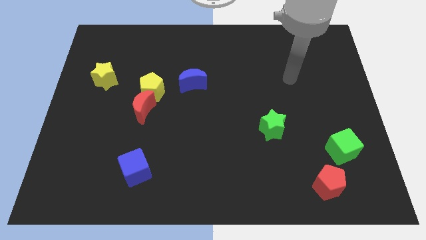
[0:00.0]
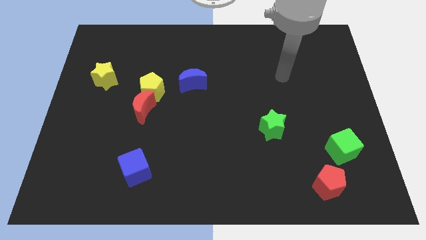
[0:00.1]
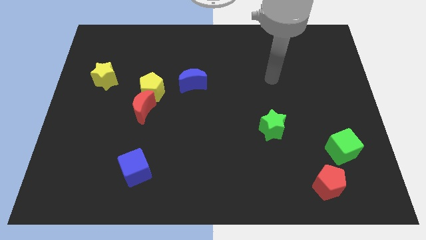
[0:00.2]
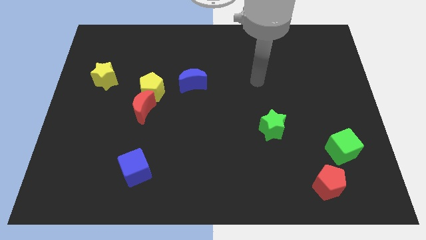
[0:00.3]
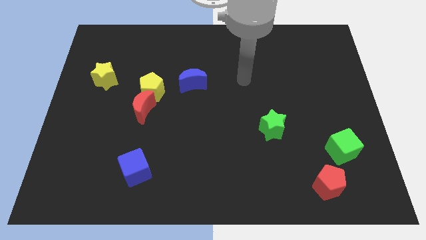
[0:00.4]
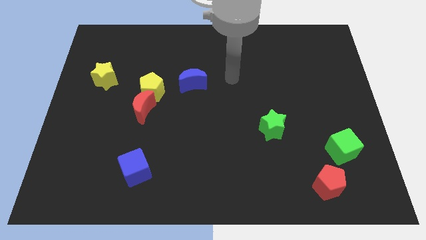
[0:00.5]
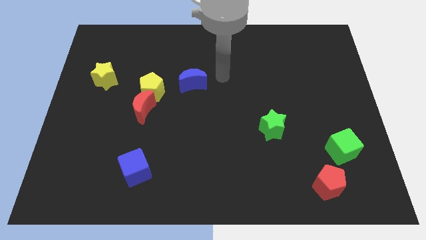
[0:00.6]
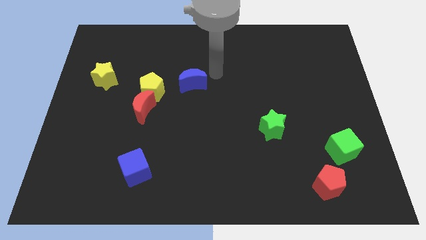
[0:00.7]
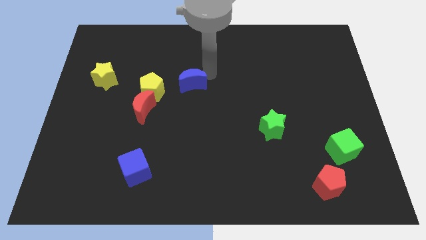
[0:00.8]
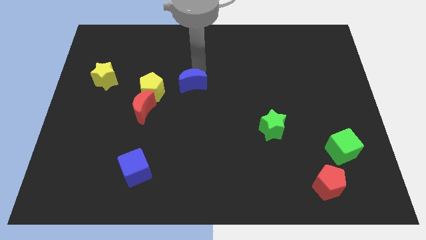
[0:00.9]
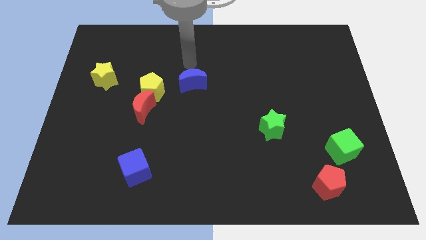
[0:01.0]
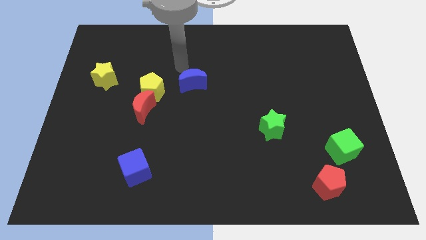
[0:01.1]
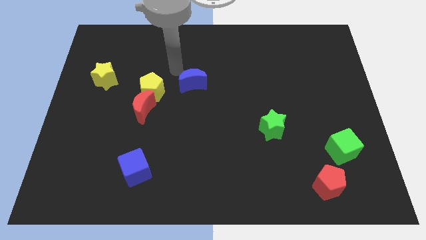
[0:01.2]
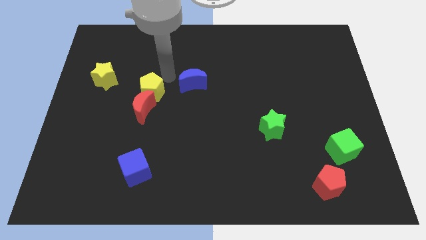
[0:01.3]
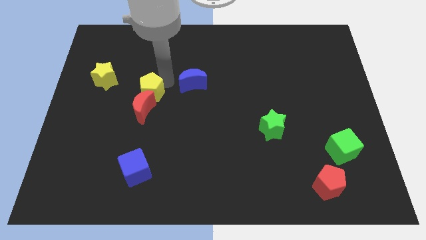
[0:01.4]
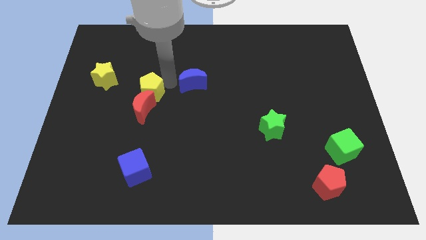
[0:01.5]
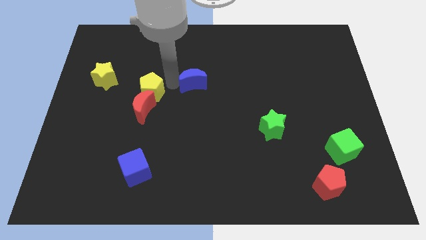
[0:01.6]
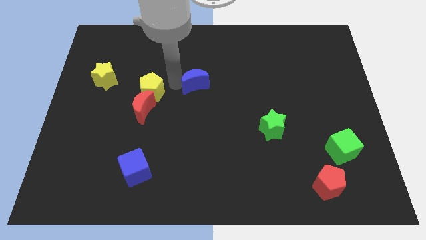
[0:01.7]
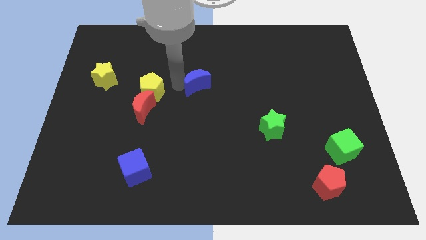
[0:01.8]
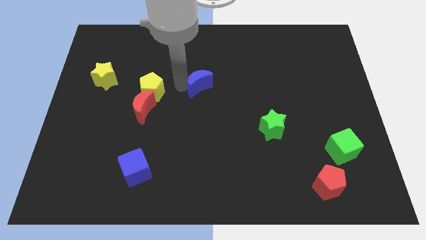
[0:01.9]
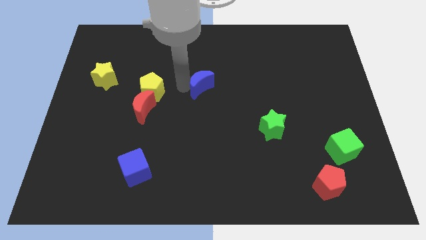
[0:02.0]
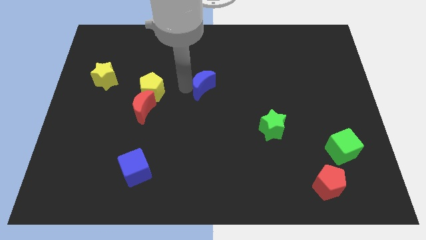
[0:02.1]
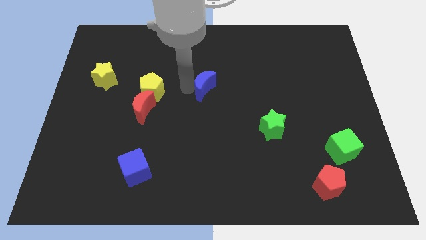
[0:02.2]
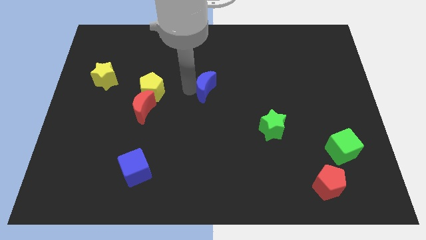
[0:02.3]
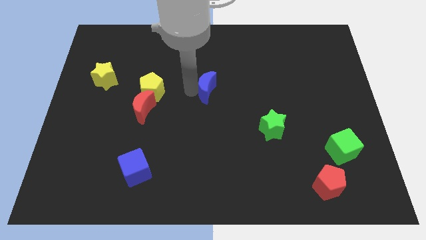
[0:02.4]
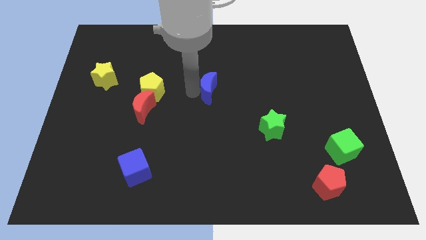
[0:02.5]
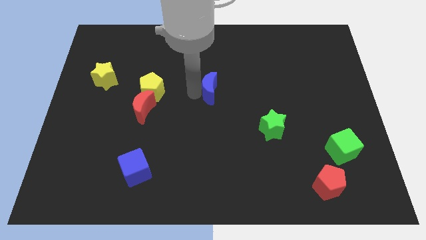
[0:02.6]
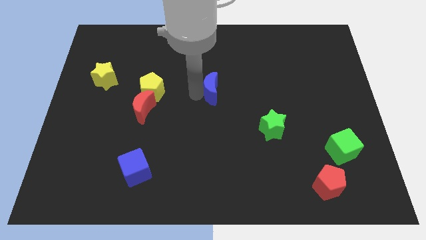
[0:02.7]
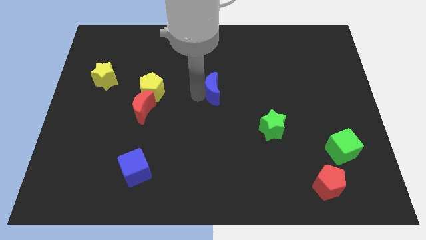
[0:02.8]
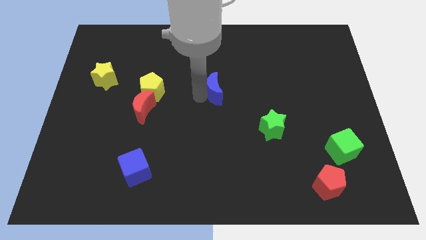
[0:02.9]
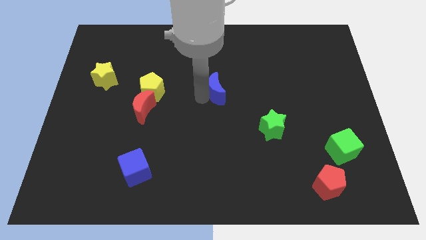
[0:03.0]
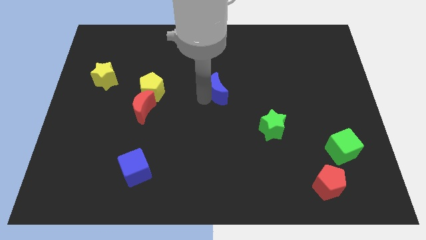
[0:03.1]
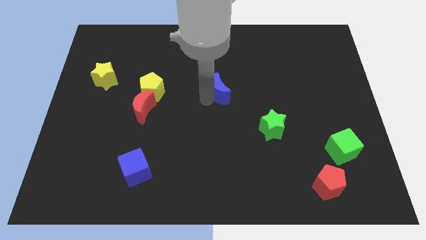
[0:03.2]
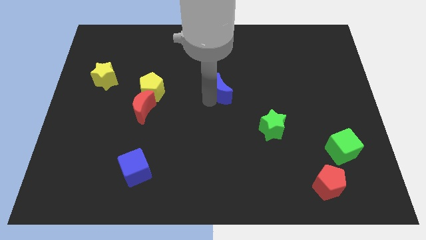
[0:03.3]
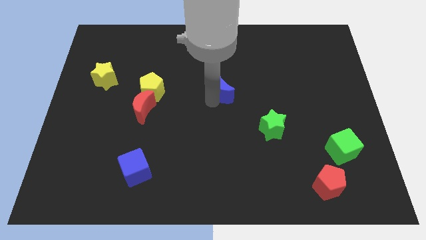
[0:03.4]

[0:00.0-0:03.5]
push the blue moon somewhat right

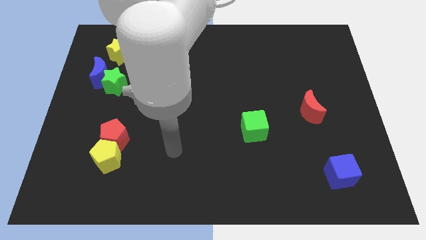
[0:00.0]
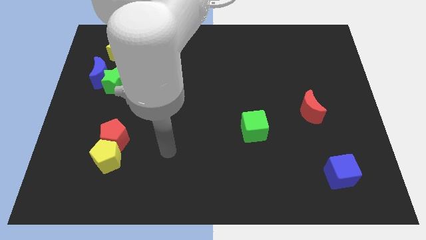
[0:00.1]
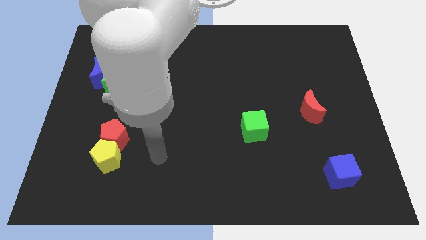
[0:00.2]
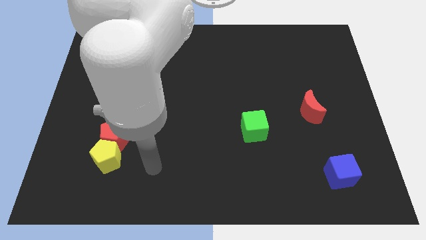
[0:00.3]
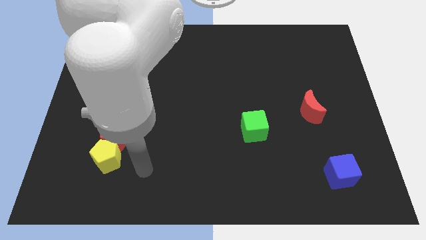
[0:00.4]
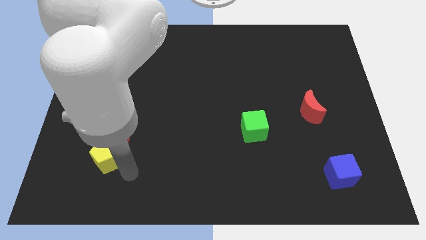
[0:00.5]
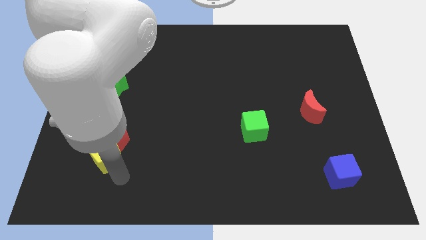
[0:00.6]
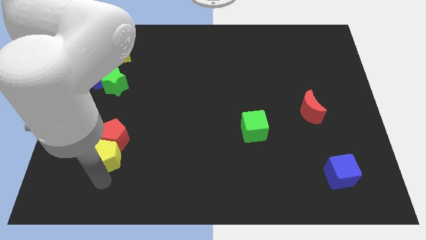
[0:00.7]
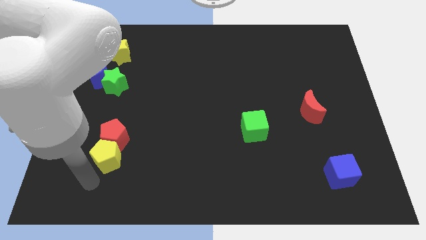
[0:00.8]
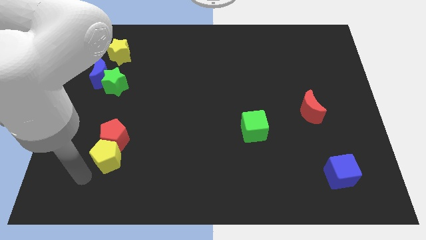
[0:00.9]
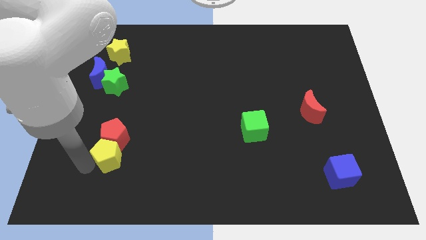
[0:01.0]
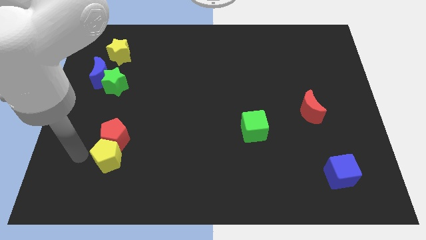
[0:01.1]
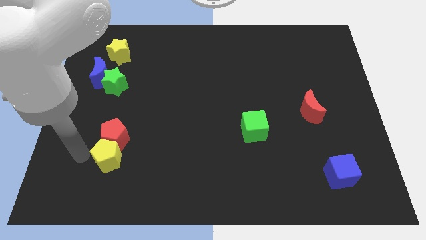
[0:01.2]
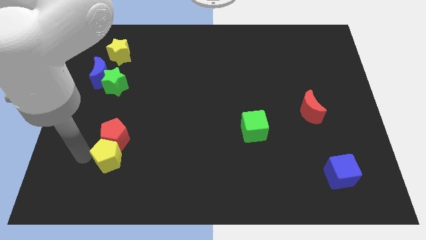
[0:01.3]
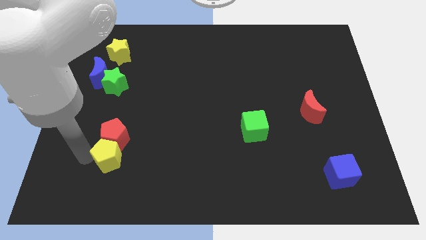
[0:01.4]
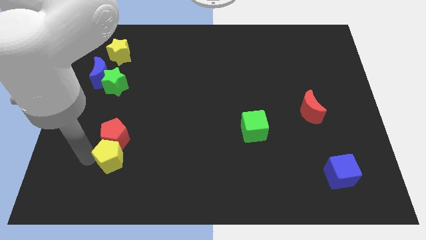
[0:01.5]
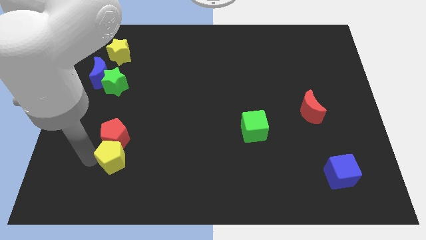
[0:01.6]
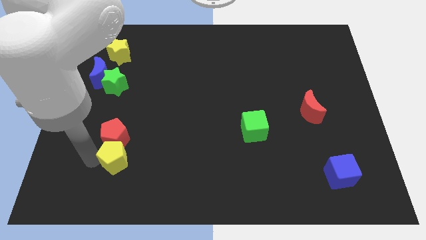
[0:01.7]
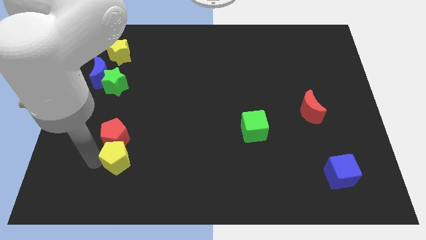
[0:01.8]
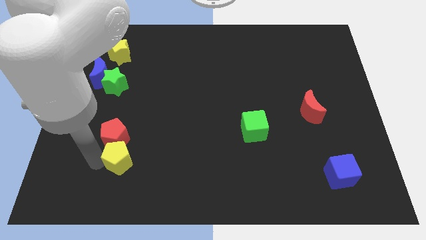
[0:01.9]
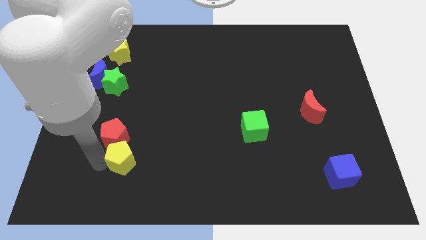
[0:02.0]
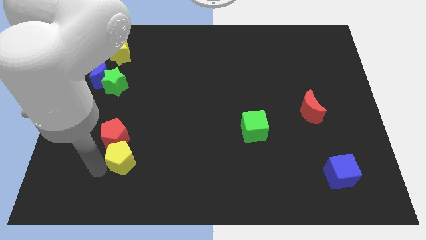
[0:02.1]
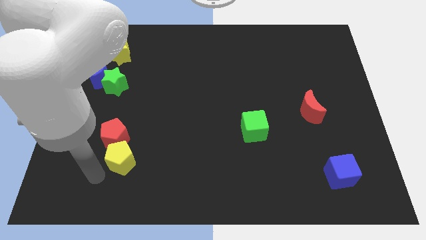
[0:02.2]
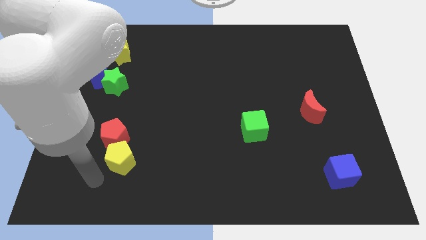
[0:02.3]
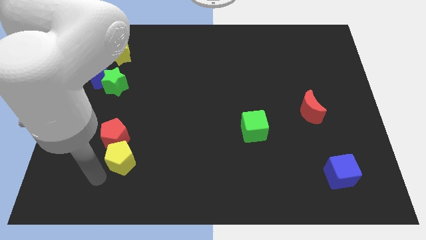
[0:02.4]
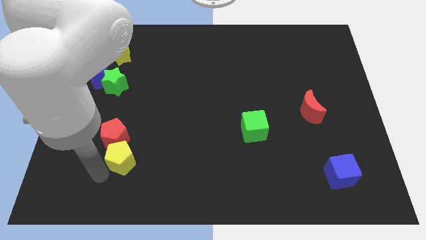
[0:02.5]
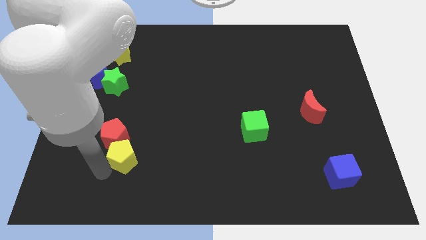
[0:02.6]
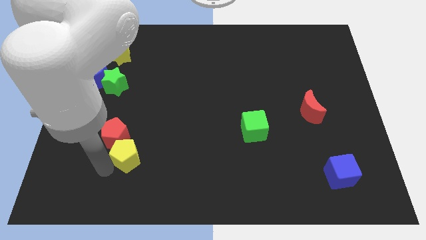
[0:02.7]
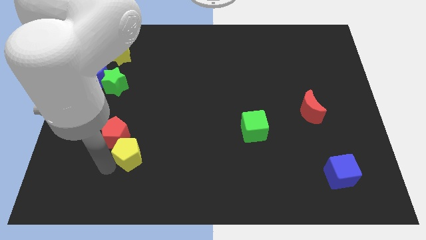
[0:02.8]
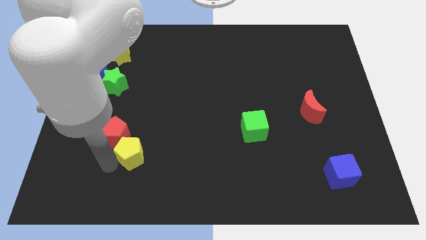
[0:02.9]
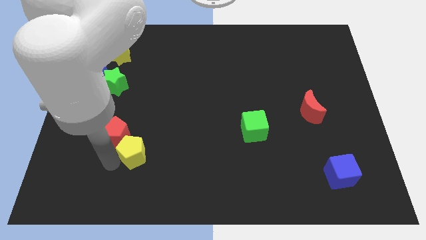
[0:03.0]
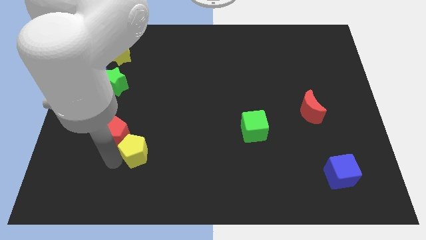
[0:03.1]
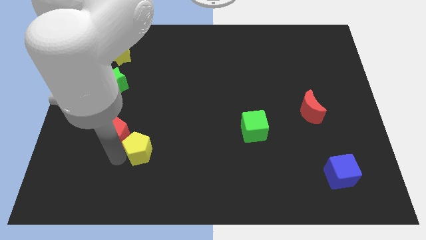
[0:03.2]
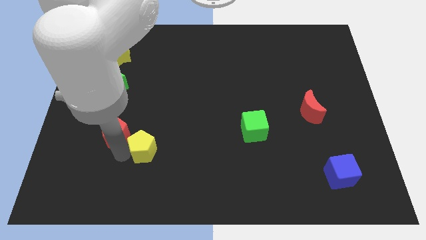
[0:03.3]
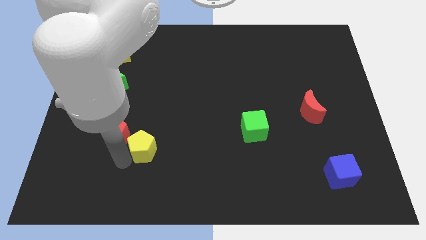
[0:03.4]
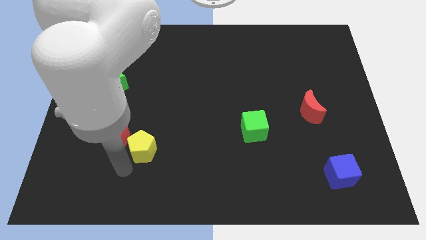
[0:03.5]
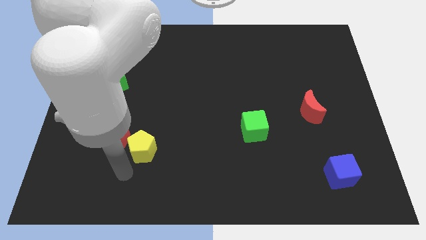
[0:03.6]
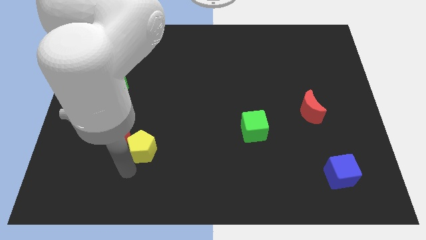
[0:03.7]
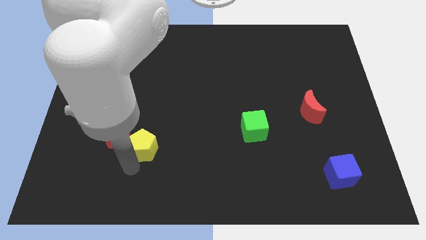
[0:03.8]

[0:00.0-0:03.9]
push the yellow pentagon a bit up and to the right

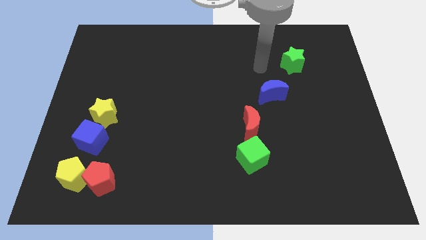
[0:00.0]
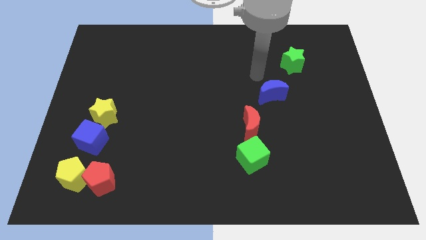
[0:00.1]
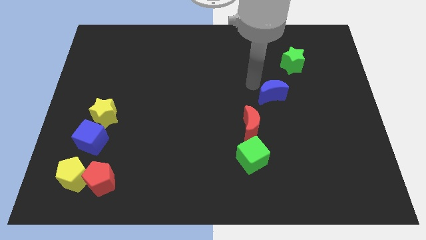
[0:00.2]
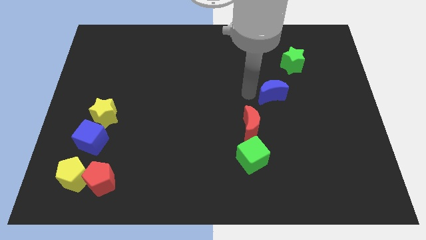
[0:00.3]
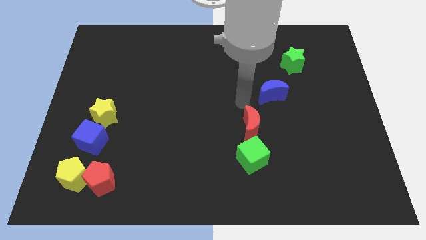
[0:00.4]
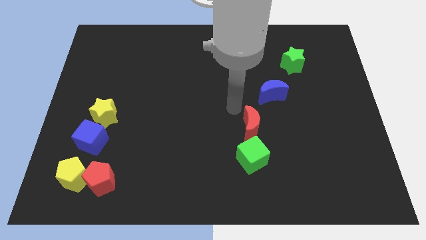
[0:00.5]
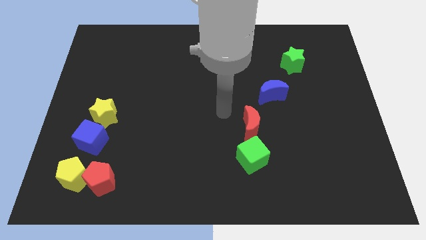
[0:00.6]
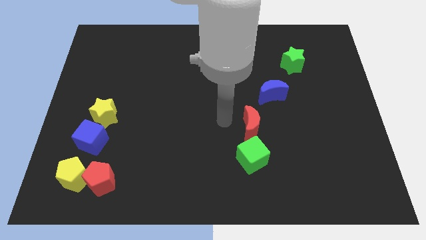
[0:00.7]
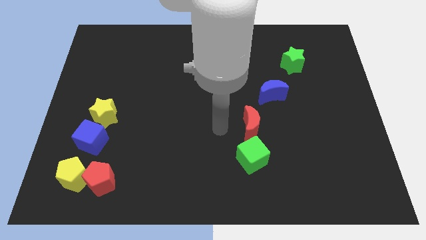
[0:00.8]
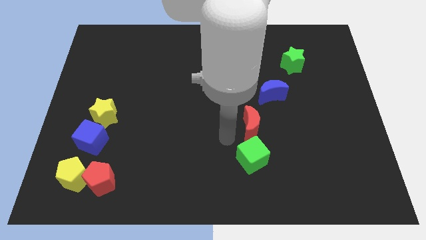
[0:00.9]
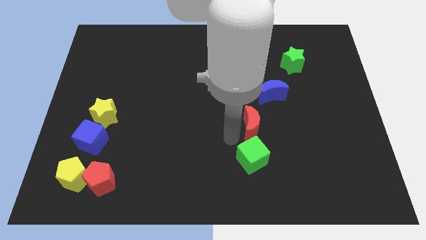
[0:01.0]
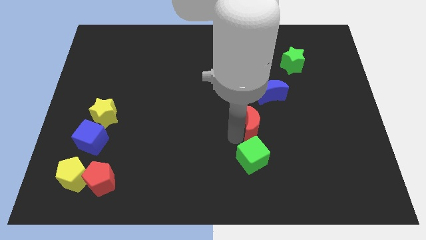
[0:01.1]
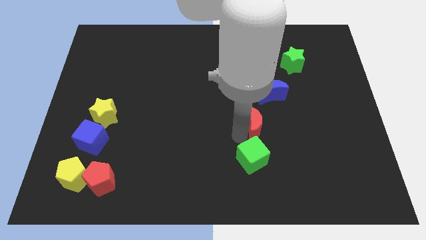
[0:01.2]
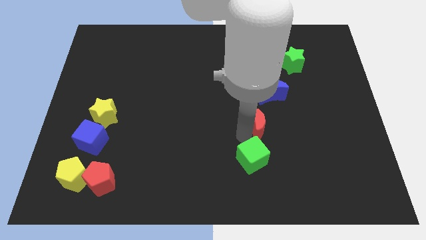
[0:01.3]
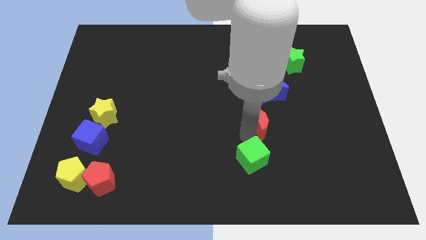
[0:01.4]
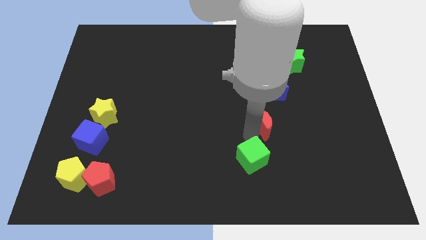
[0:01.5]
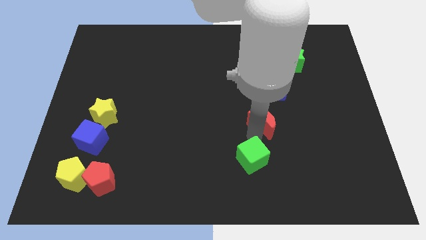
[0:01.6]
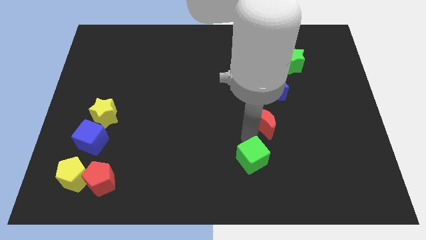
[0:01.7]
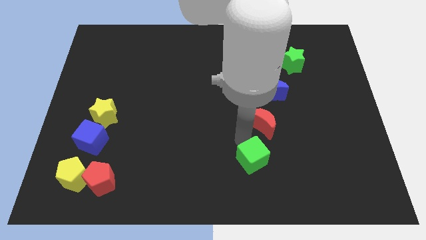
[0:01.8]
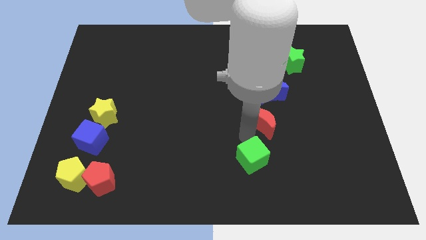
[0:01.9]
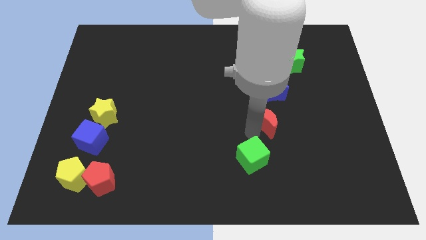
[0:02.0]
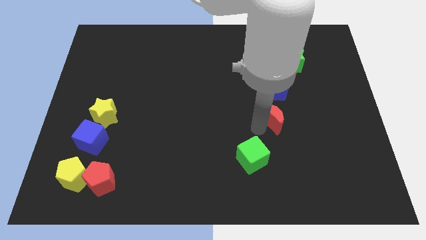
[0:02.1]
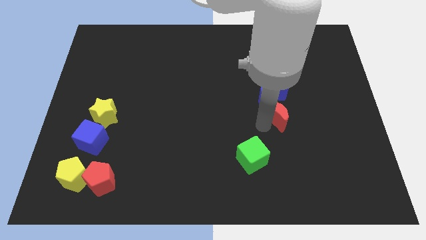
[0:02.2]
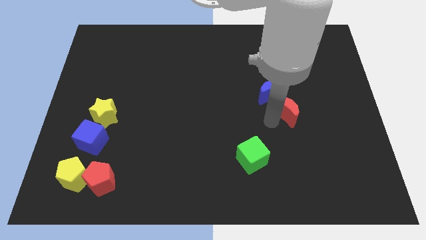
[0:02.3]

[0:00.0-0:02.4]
move the red moon upwards and right a little
